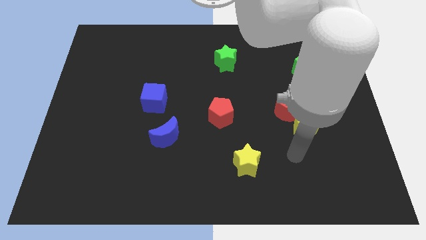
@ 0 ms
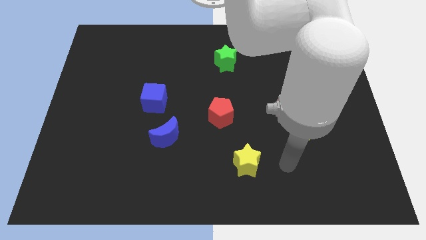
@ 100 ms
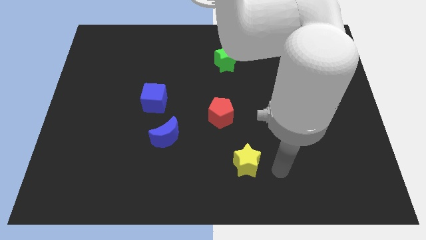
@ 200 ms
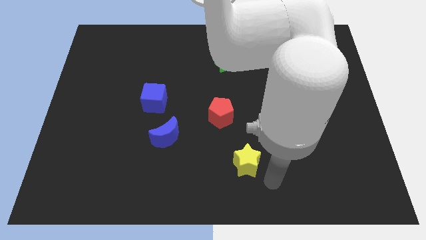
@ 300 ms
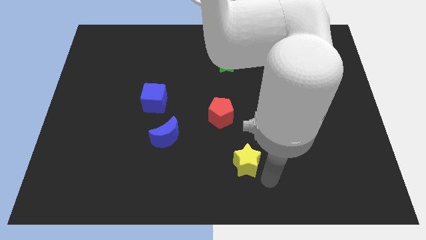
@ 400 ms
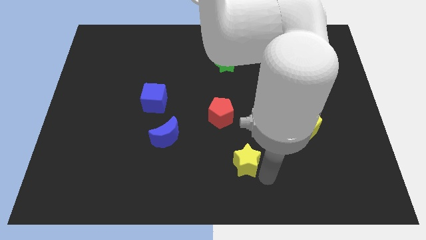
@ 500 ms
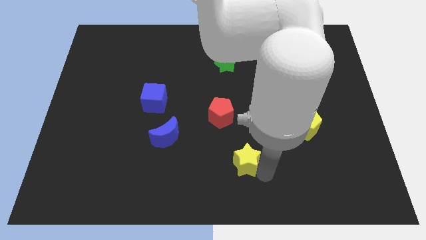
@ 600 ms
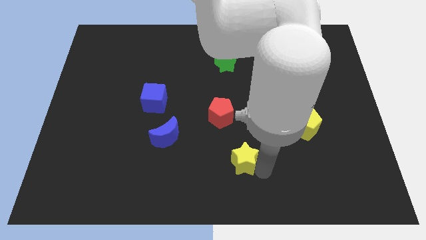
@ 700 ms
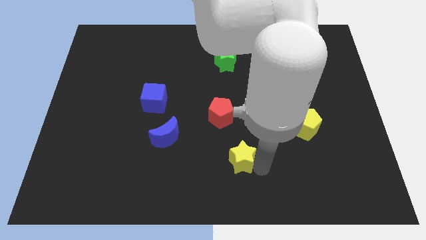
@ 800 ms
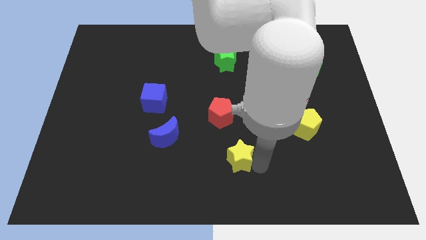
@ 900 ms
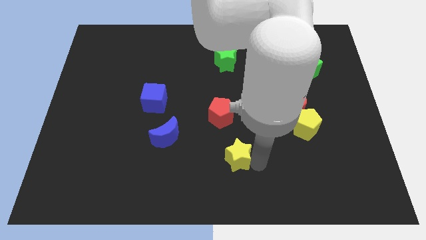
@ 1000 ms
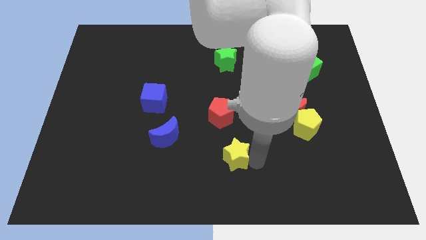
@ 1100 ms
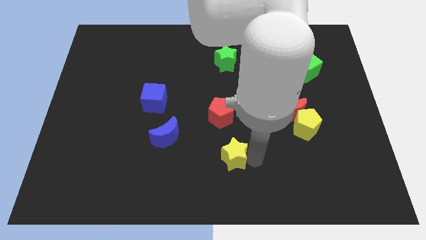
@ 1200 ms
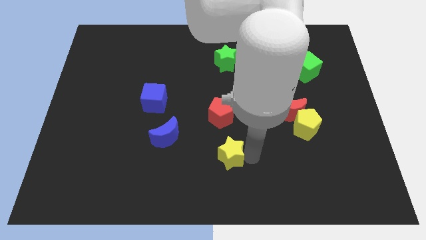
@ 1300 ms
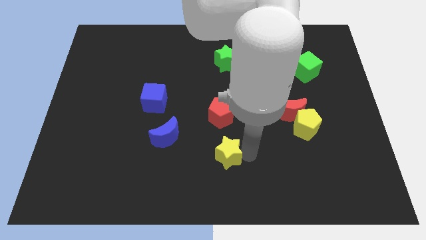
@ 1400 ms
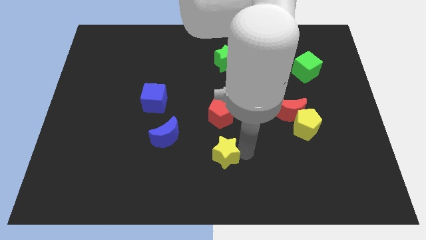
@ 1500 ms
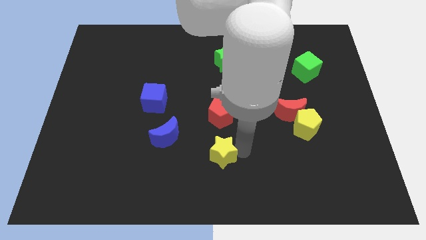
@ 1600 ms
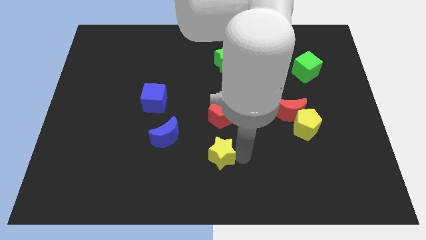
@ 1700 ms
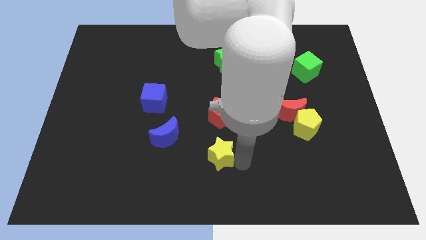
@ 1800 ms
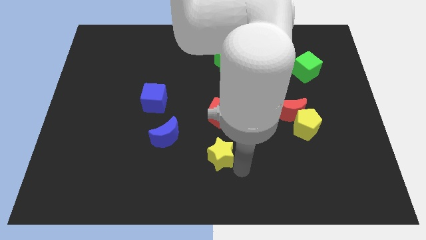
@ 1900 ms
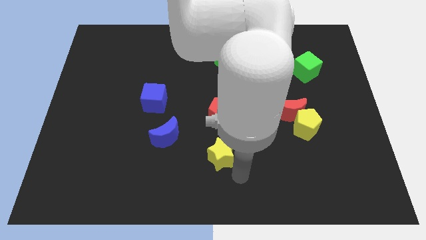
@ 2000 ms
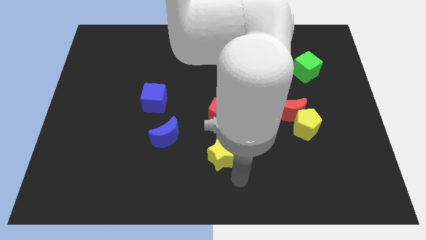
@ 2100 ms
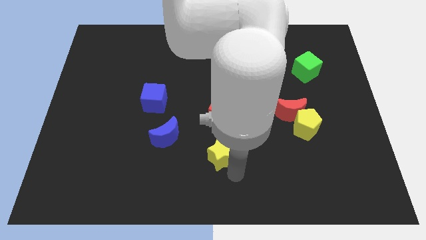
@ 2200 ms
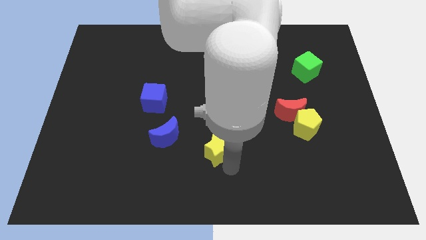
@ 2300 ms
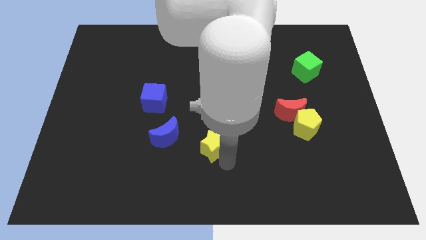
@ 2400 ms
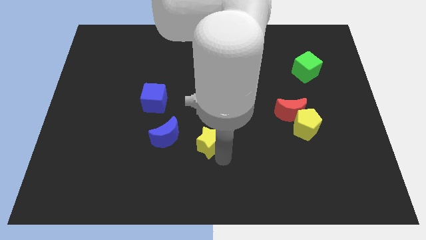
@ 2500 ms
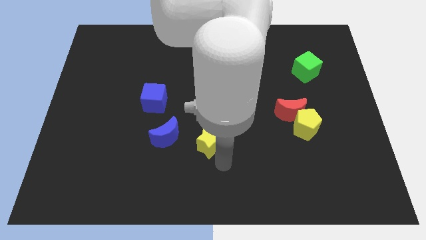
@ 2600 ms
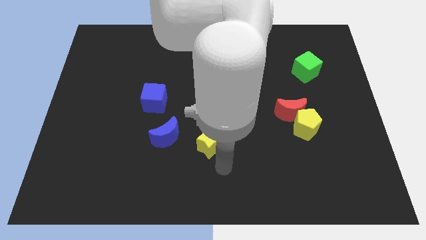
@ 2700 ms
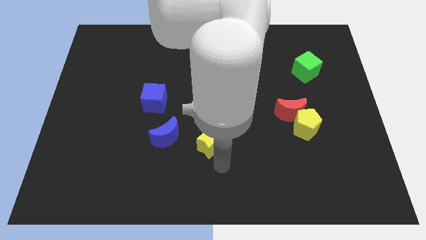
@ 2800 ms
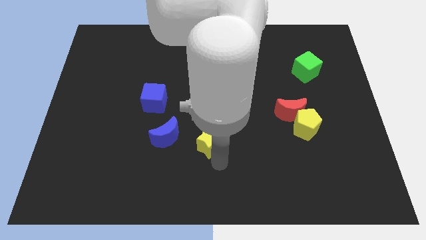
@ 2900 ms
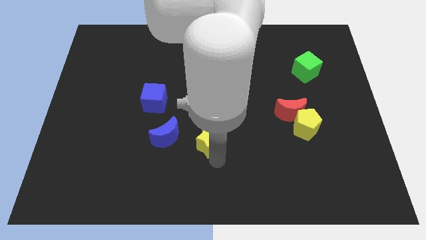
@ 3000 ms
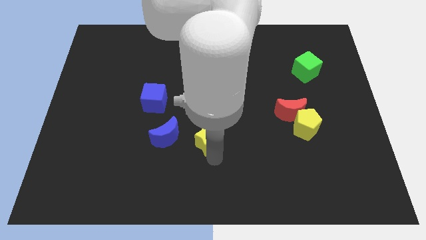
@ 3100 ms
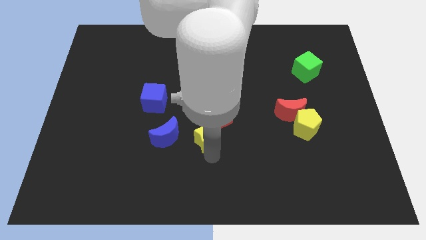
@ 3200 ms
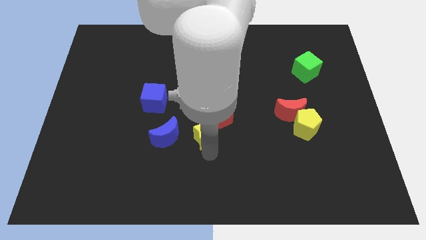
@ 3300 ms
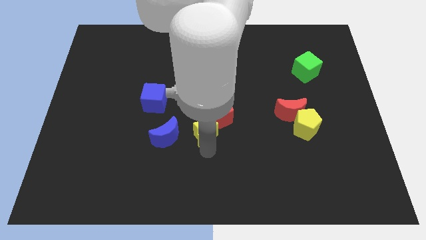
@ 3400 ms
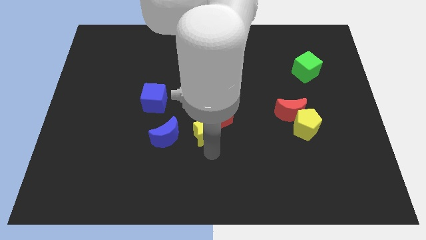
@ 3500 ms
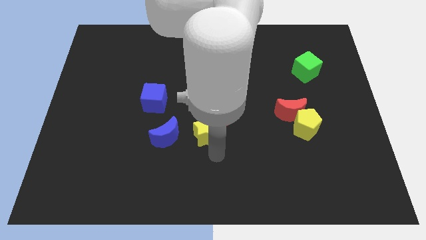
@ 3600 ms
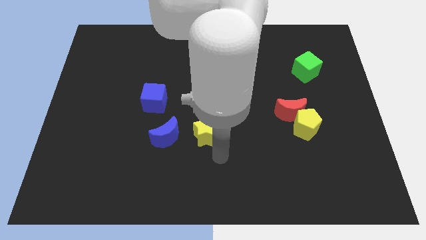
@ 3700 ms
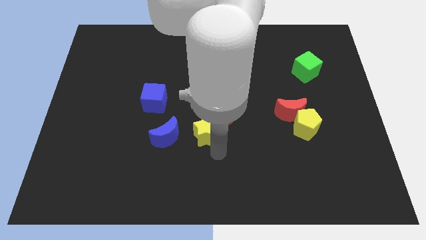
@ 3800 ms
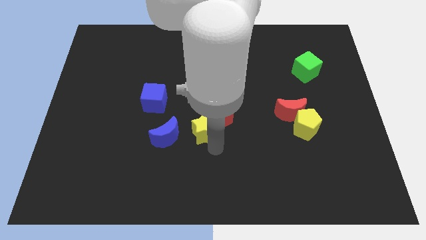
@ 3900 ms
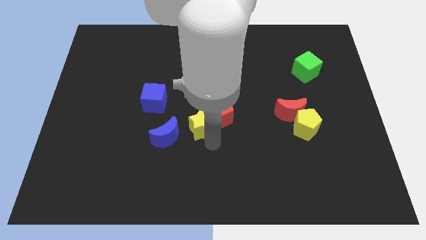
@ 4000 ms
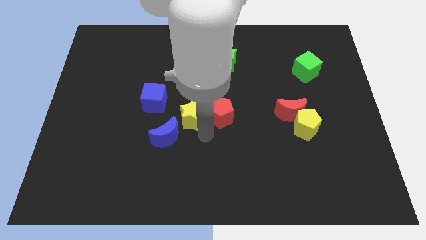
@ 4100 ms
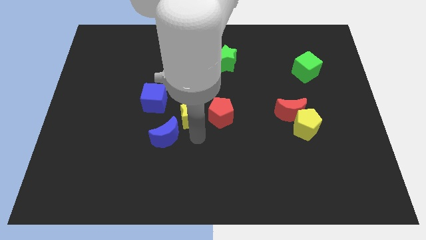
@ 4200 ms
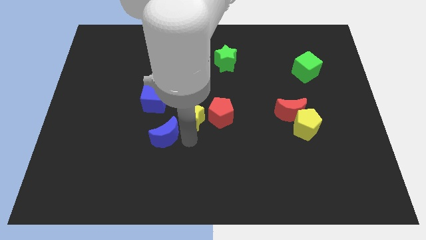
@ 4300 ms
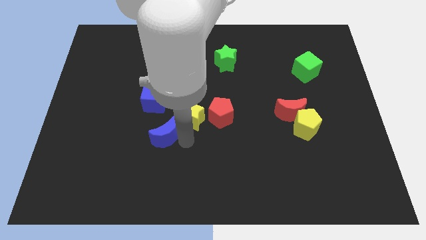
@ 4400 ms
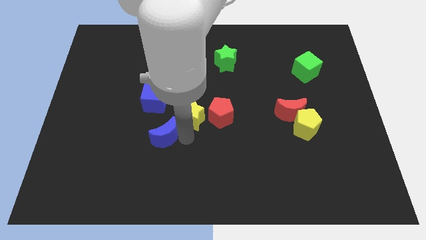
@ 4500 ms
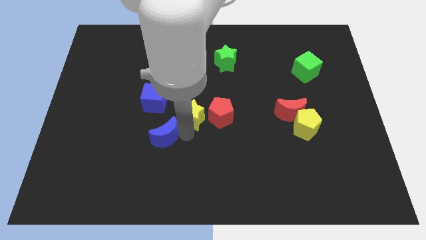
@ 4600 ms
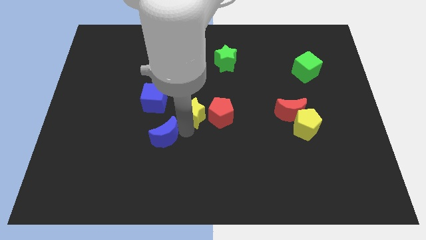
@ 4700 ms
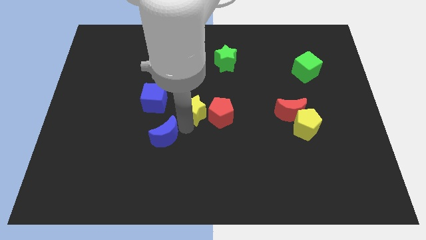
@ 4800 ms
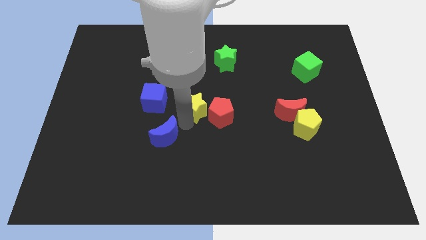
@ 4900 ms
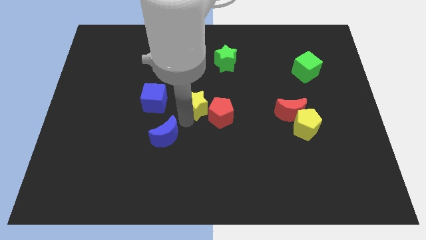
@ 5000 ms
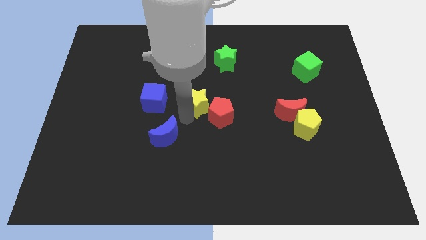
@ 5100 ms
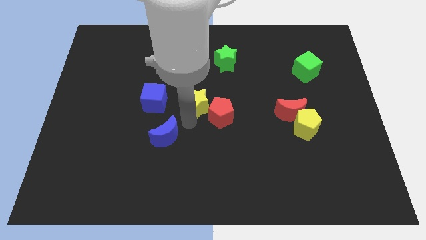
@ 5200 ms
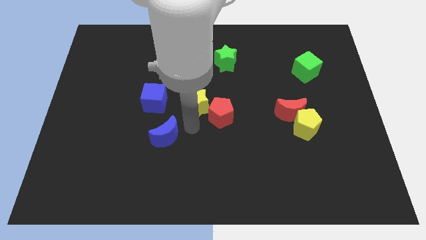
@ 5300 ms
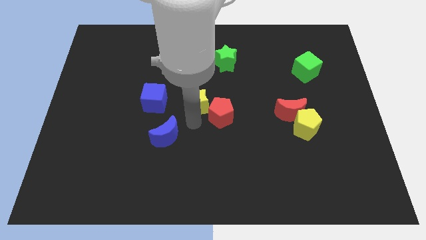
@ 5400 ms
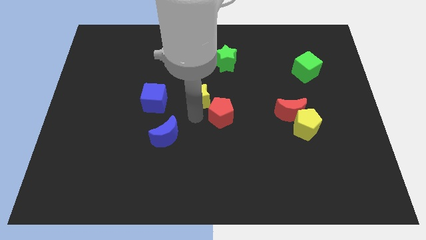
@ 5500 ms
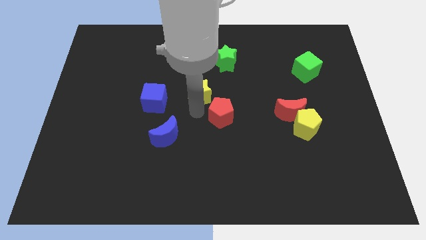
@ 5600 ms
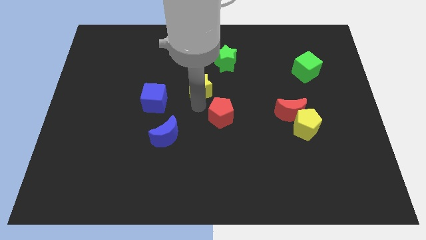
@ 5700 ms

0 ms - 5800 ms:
move the yellow star to the bottom left of the green star
